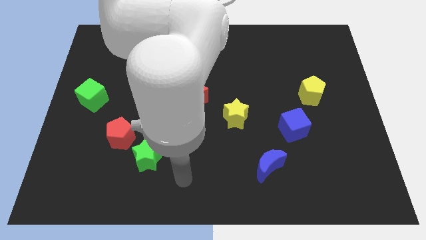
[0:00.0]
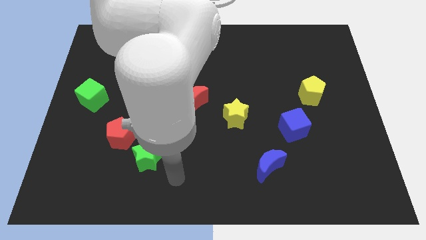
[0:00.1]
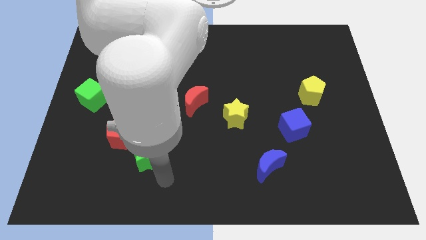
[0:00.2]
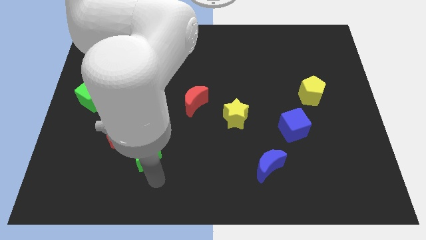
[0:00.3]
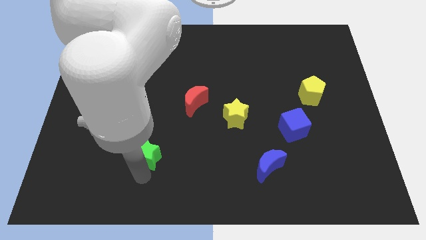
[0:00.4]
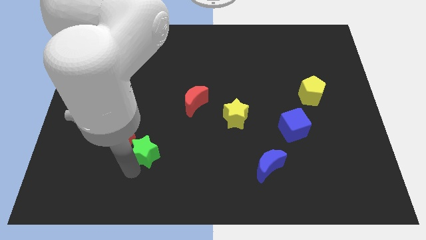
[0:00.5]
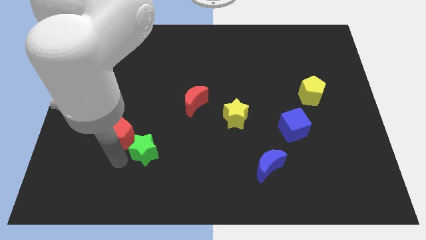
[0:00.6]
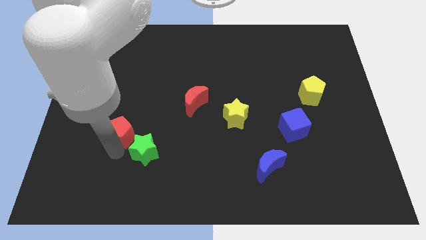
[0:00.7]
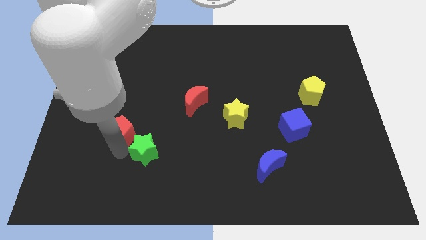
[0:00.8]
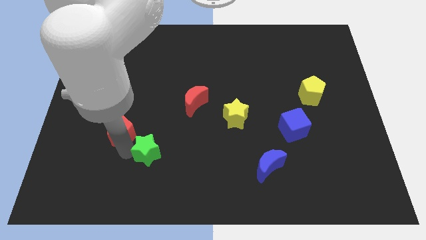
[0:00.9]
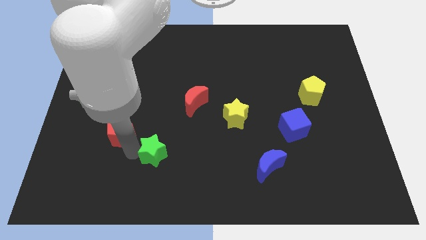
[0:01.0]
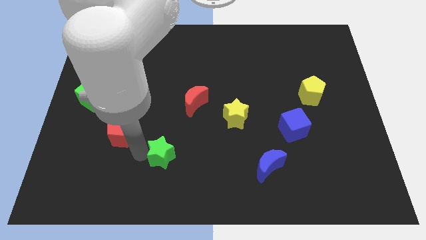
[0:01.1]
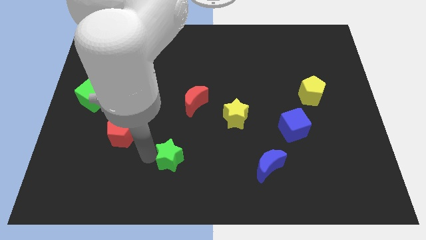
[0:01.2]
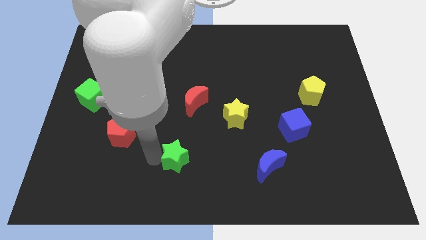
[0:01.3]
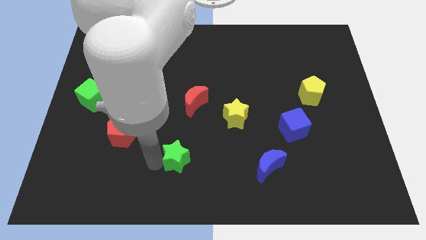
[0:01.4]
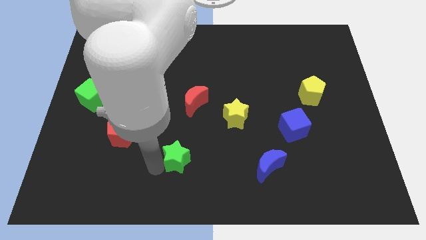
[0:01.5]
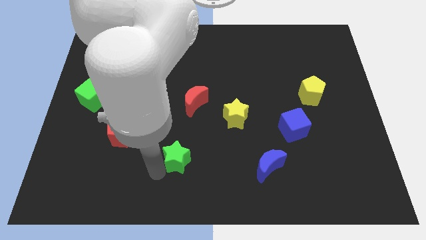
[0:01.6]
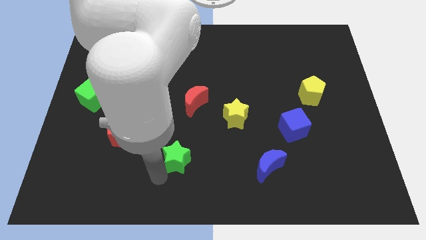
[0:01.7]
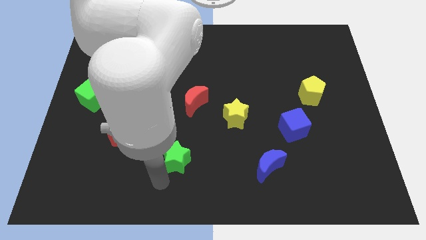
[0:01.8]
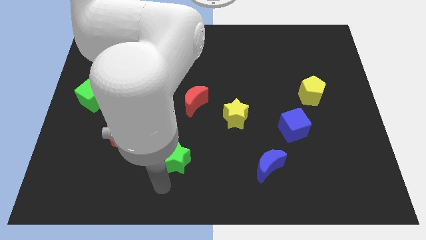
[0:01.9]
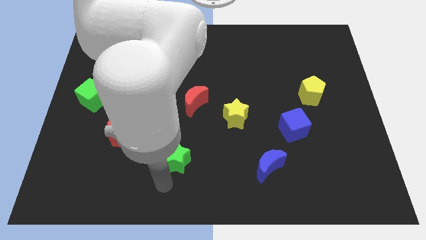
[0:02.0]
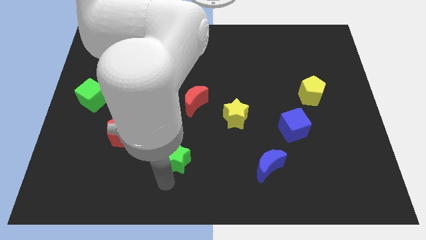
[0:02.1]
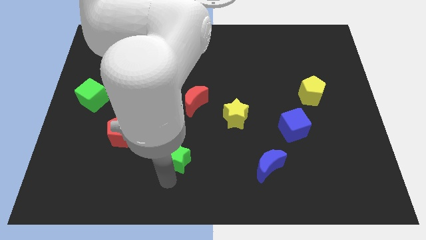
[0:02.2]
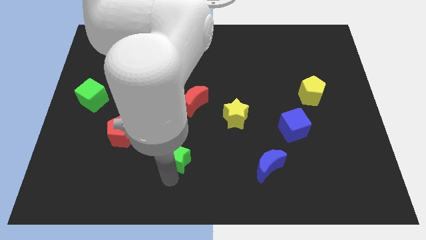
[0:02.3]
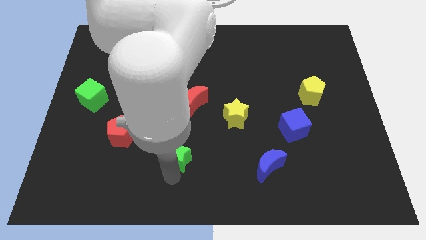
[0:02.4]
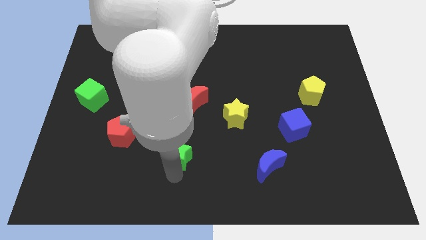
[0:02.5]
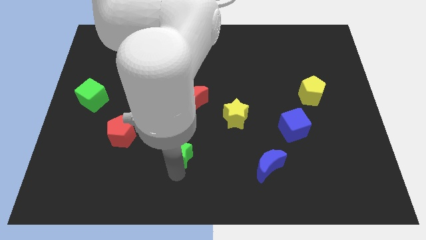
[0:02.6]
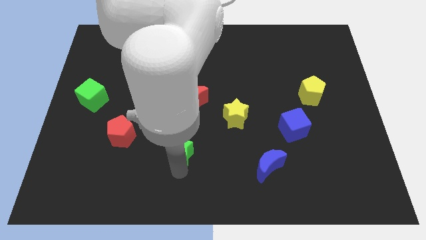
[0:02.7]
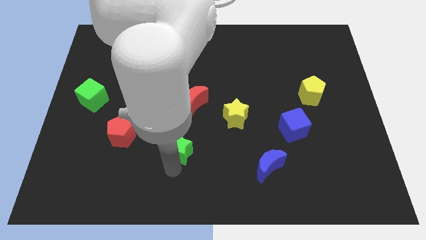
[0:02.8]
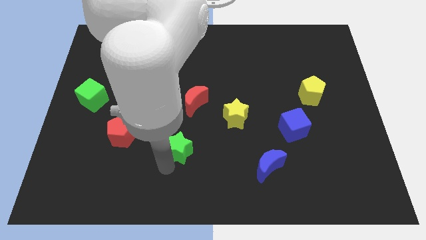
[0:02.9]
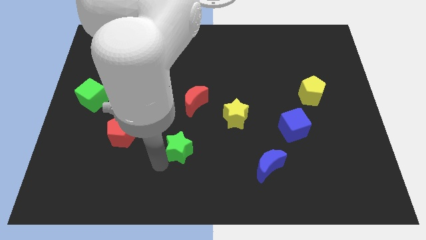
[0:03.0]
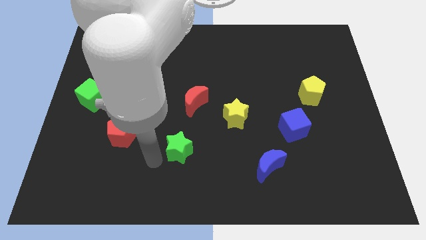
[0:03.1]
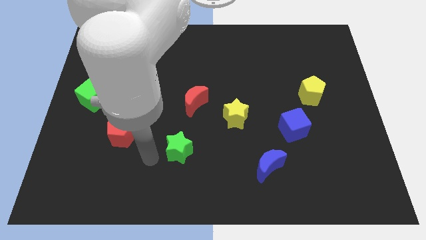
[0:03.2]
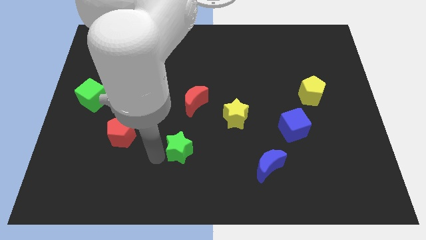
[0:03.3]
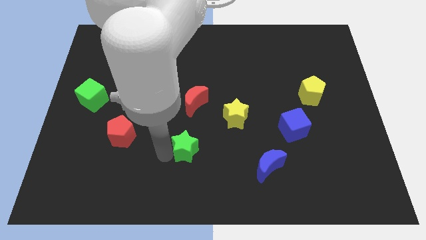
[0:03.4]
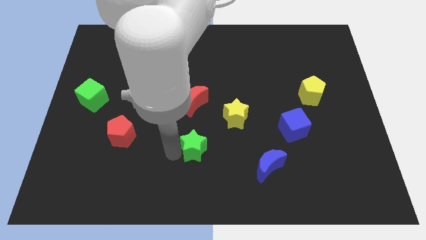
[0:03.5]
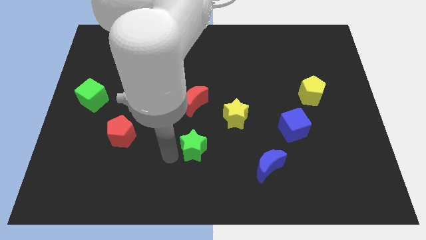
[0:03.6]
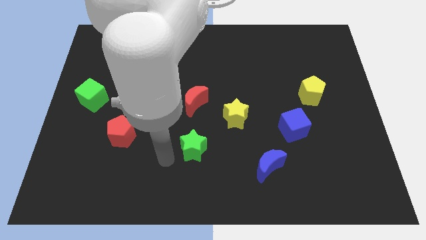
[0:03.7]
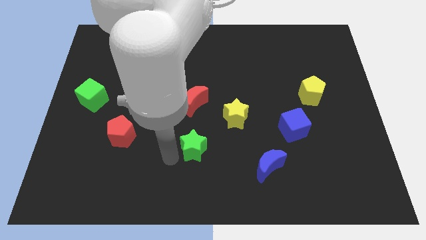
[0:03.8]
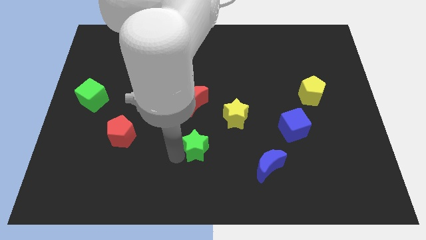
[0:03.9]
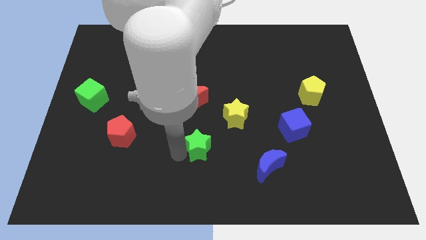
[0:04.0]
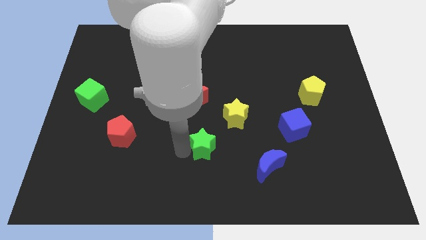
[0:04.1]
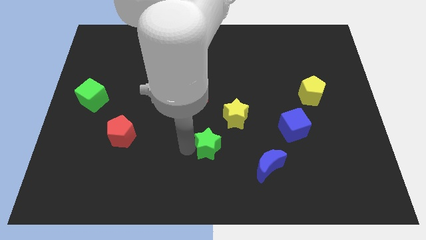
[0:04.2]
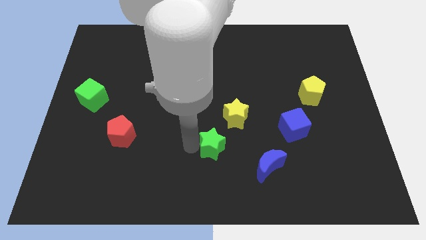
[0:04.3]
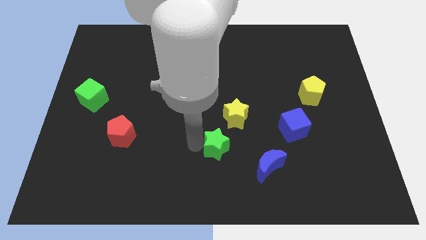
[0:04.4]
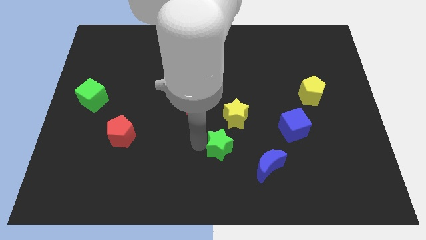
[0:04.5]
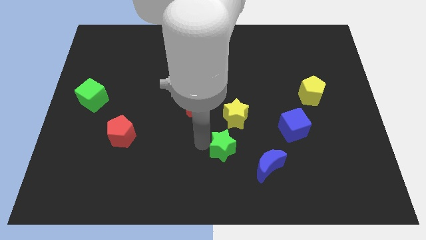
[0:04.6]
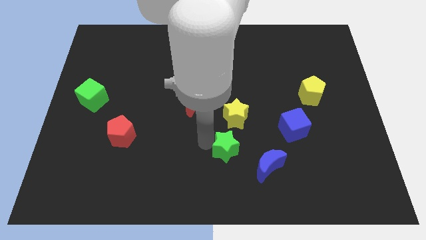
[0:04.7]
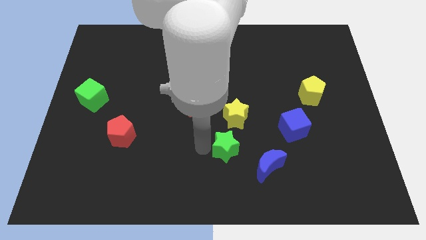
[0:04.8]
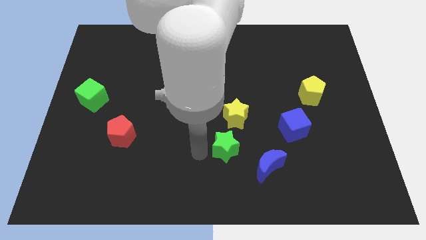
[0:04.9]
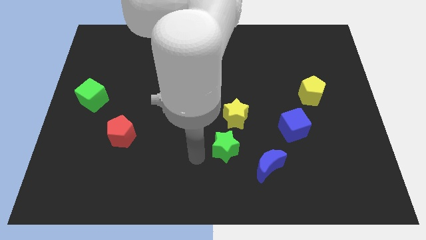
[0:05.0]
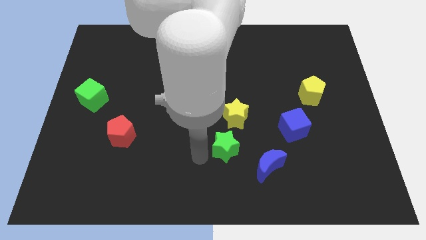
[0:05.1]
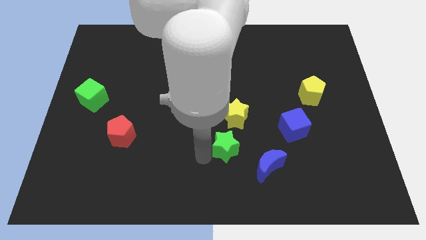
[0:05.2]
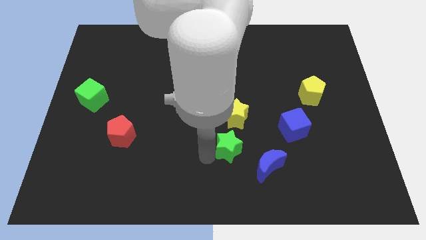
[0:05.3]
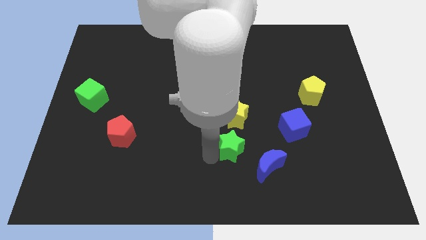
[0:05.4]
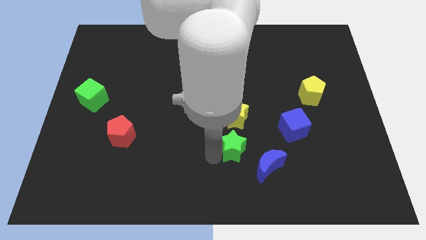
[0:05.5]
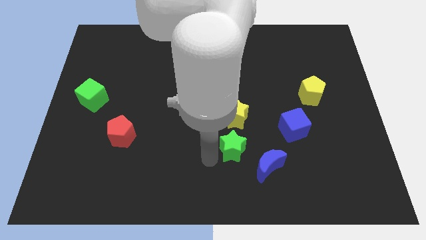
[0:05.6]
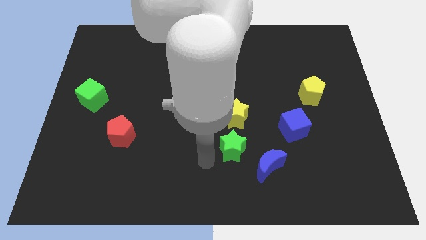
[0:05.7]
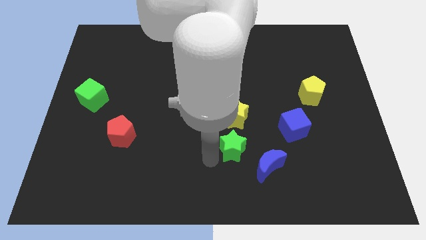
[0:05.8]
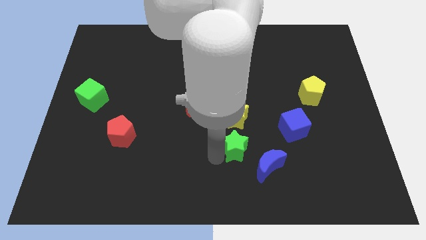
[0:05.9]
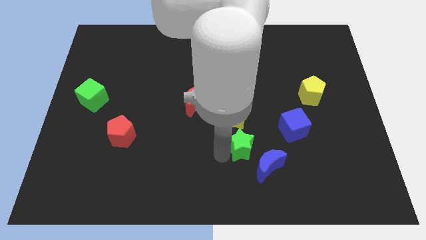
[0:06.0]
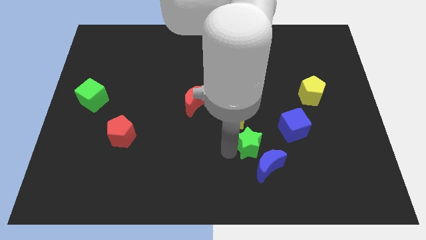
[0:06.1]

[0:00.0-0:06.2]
move the green star right

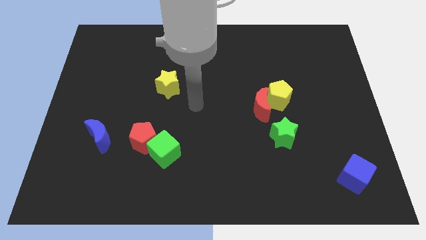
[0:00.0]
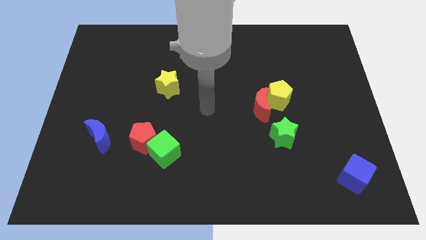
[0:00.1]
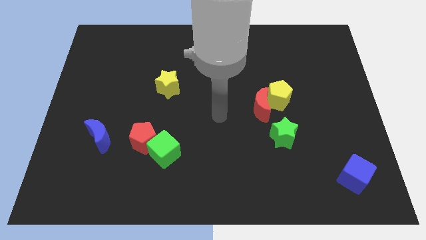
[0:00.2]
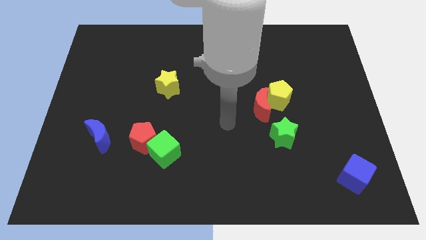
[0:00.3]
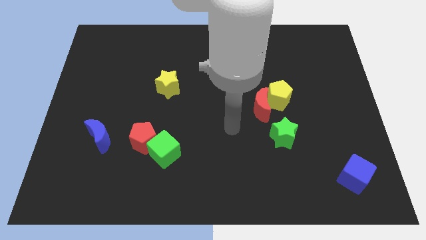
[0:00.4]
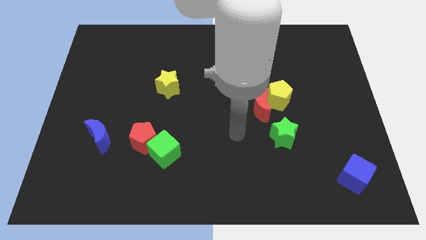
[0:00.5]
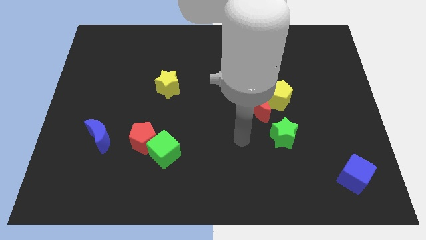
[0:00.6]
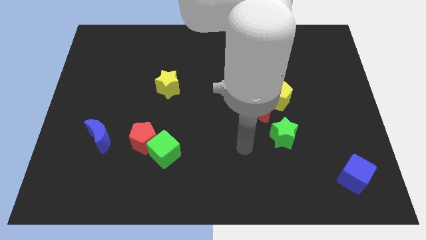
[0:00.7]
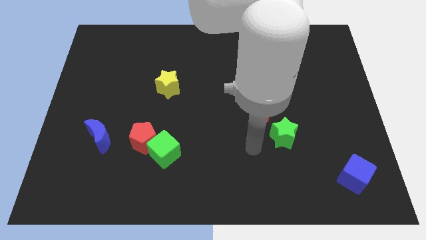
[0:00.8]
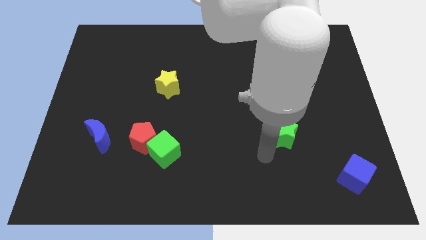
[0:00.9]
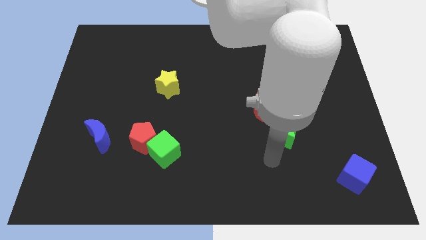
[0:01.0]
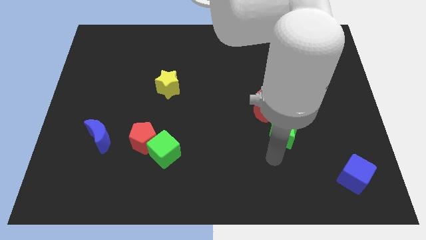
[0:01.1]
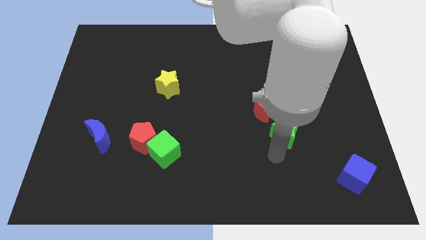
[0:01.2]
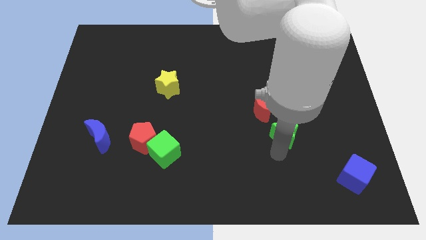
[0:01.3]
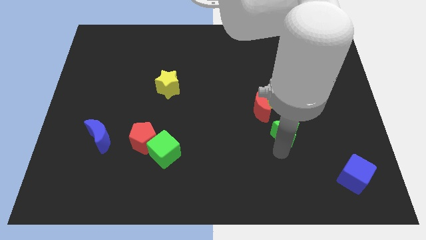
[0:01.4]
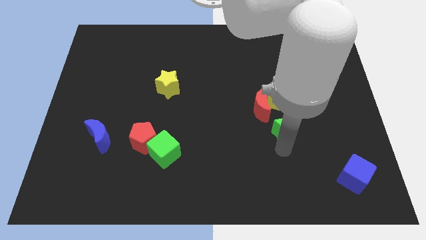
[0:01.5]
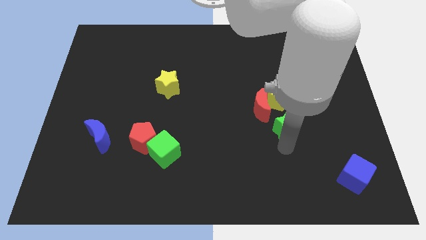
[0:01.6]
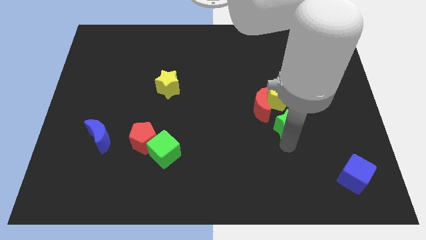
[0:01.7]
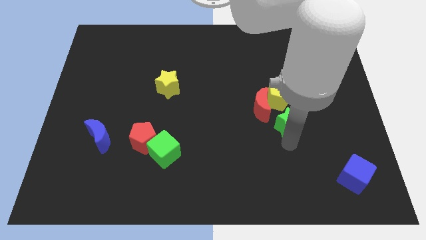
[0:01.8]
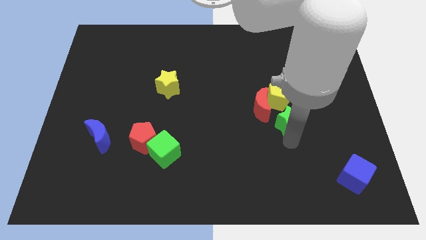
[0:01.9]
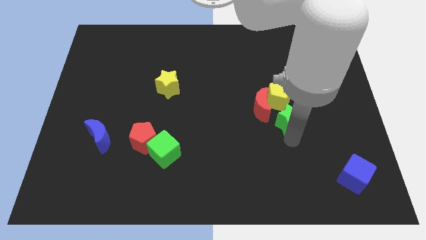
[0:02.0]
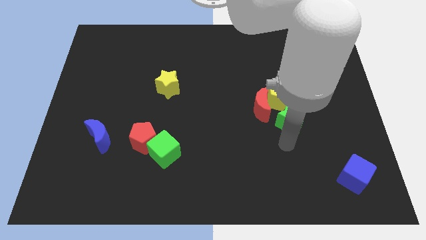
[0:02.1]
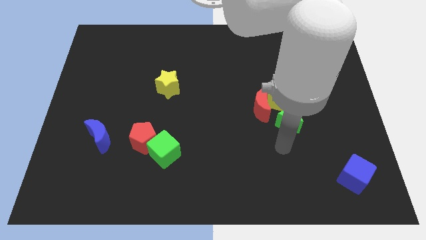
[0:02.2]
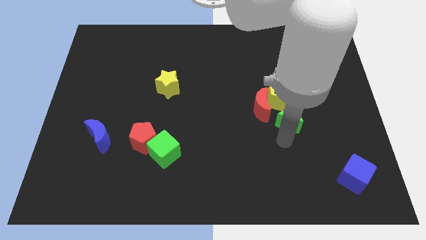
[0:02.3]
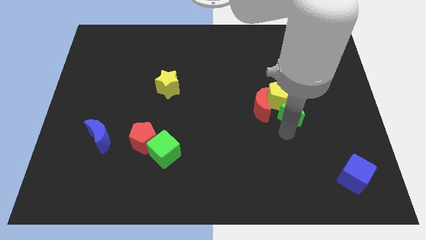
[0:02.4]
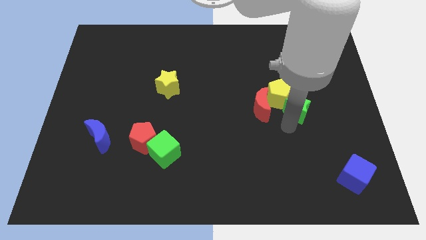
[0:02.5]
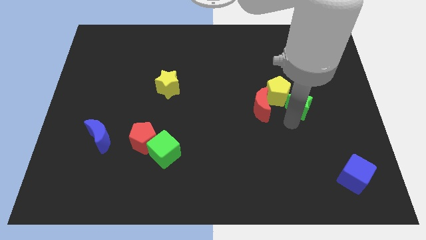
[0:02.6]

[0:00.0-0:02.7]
push the green star a bit upwards
